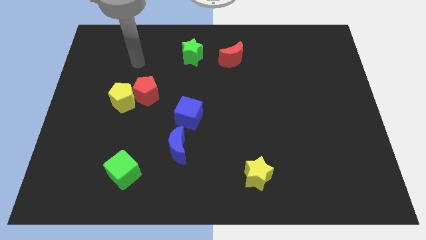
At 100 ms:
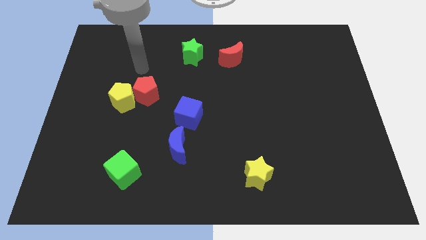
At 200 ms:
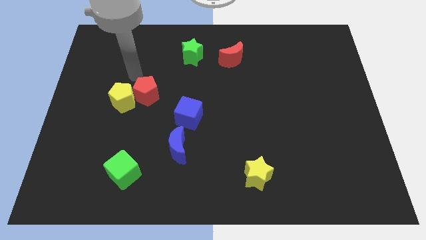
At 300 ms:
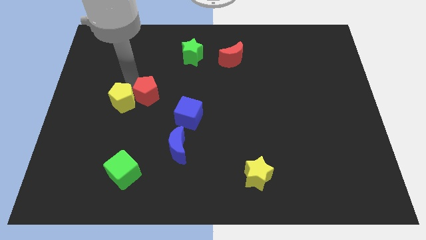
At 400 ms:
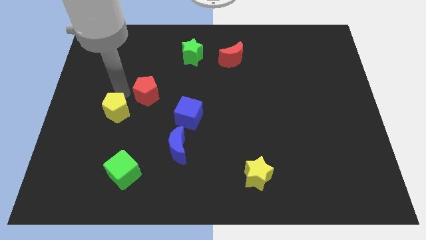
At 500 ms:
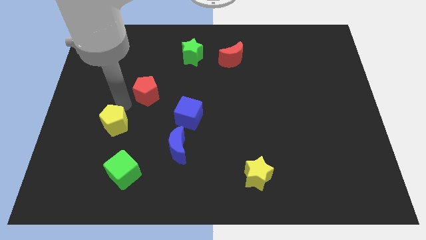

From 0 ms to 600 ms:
move the red pentagon away from the yellow pentagon

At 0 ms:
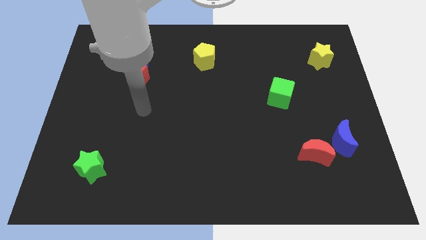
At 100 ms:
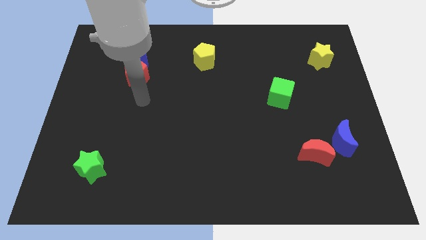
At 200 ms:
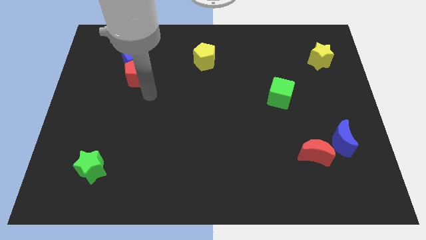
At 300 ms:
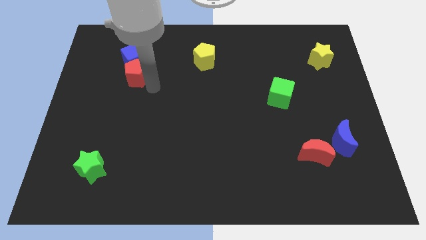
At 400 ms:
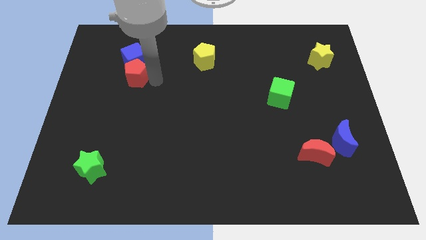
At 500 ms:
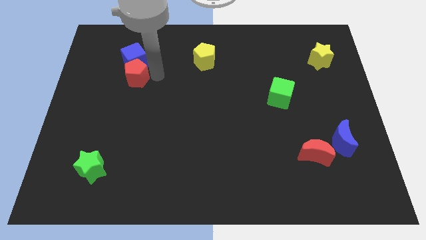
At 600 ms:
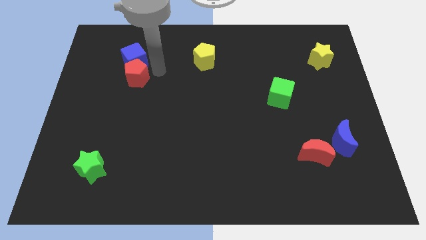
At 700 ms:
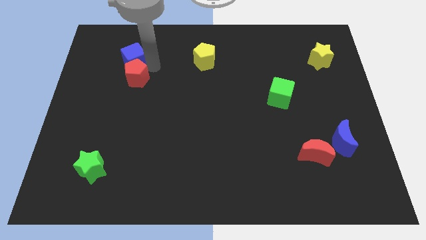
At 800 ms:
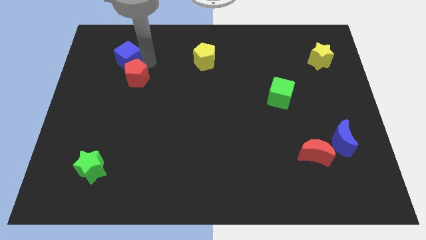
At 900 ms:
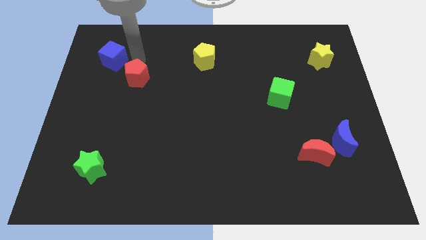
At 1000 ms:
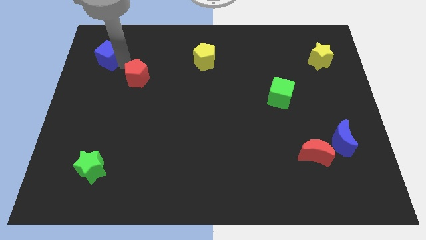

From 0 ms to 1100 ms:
pull the red pentagon apart from the blue cube

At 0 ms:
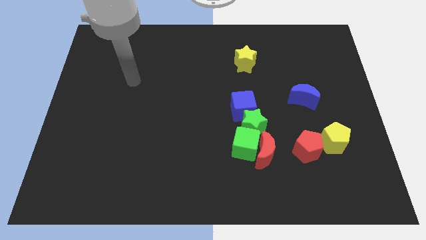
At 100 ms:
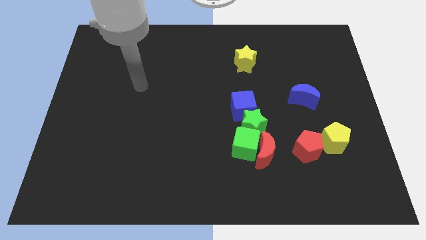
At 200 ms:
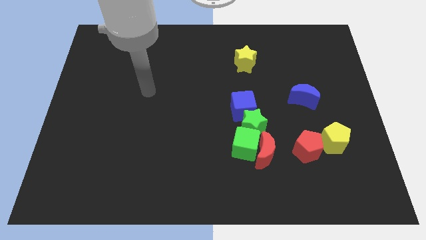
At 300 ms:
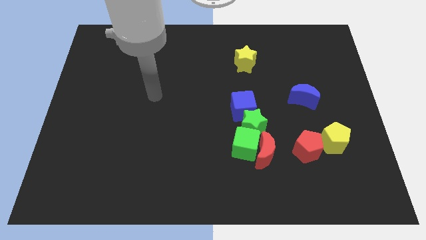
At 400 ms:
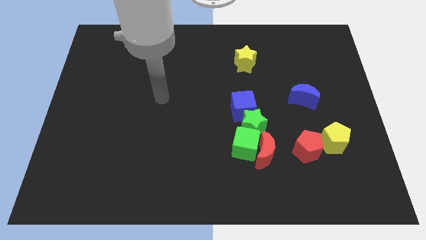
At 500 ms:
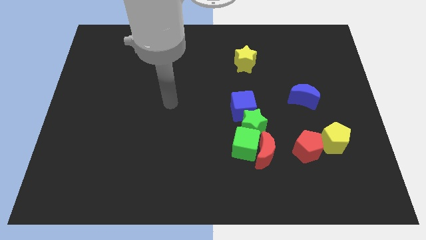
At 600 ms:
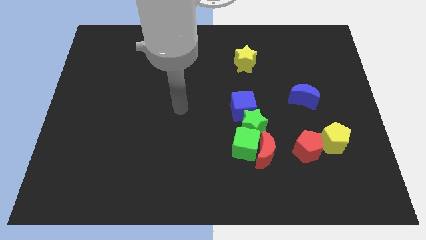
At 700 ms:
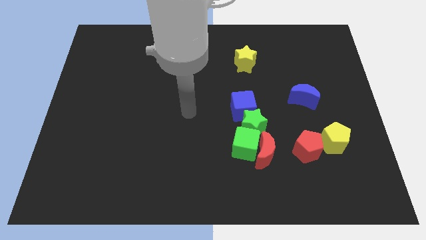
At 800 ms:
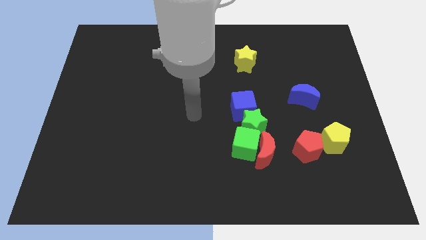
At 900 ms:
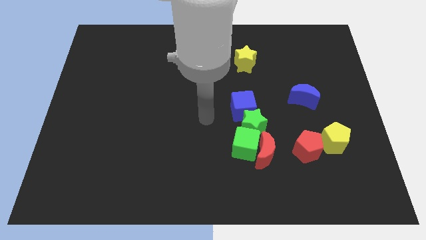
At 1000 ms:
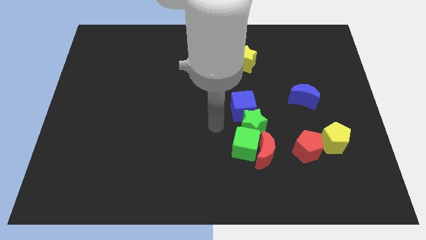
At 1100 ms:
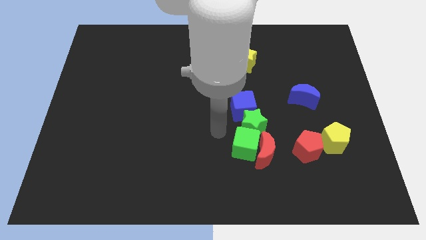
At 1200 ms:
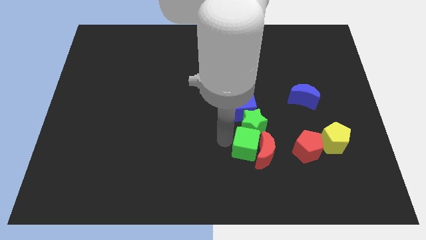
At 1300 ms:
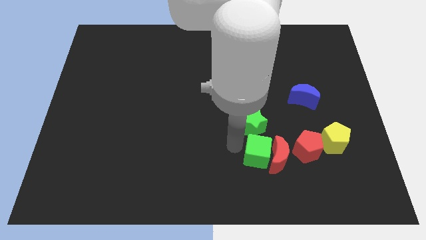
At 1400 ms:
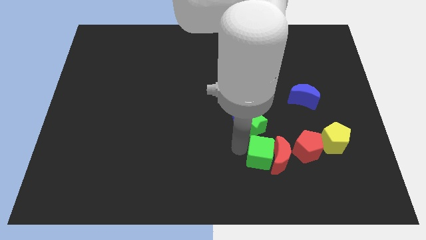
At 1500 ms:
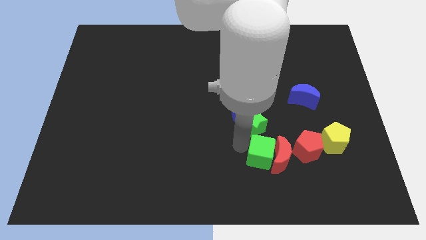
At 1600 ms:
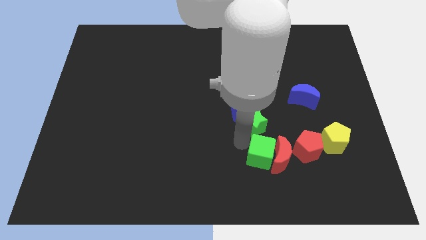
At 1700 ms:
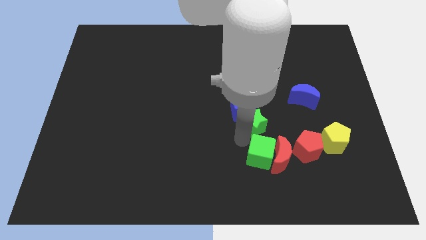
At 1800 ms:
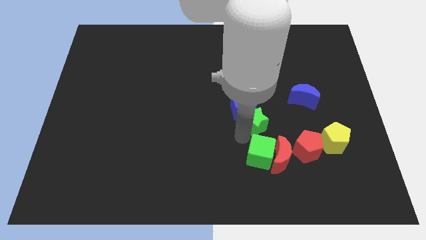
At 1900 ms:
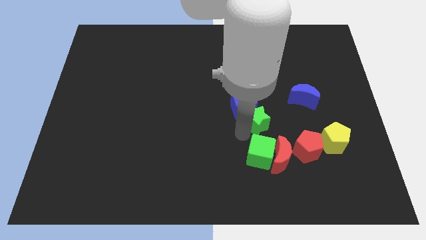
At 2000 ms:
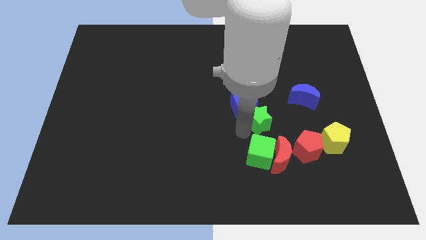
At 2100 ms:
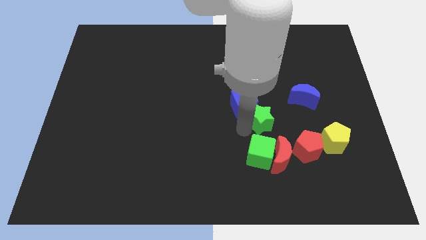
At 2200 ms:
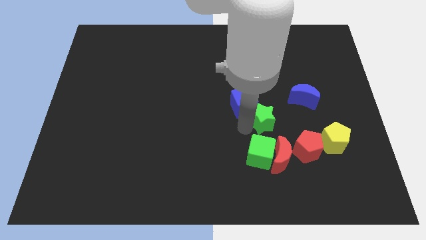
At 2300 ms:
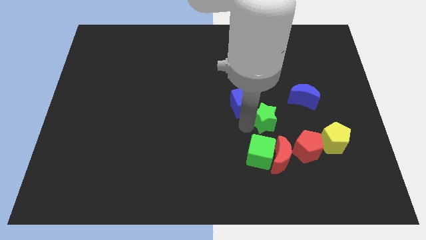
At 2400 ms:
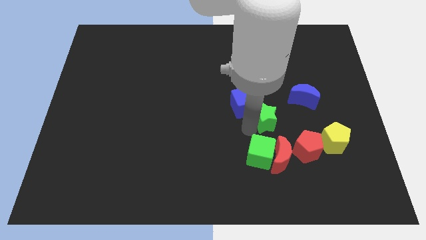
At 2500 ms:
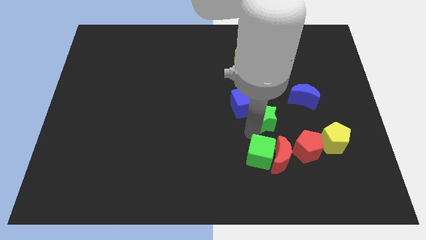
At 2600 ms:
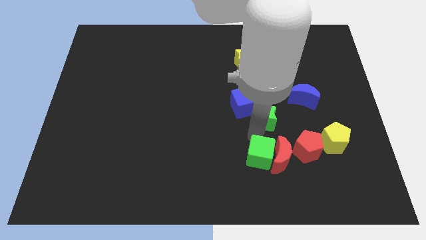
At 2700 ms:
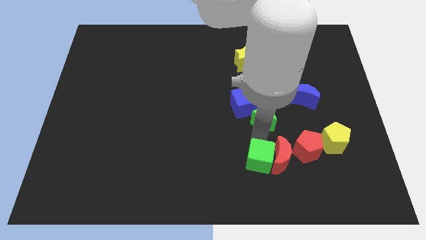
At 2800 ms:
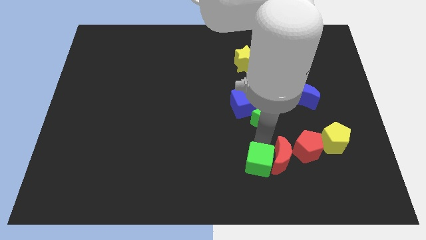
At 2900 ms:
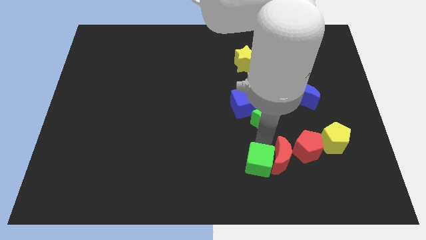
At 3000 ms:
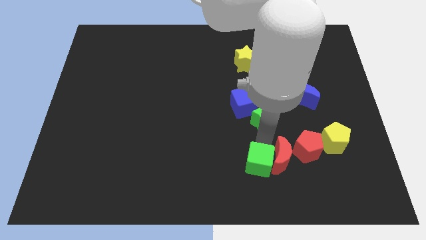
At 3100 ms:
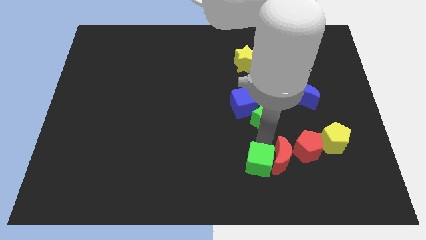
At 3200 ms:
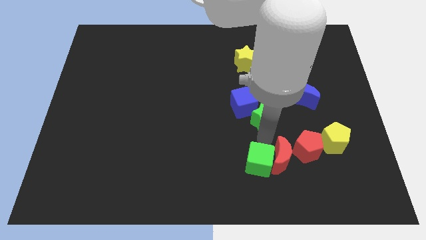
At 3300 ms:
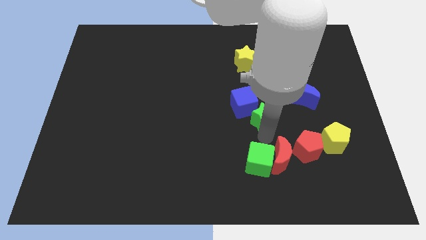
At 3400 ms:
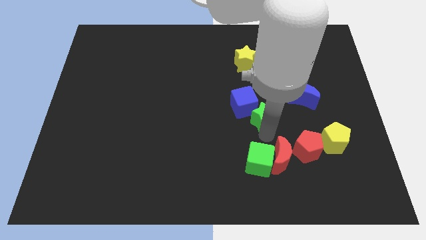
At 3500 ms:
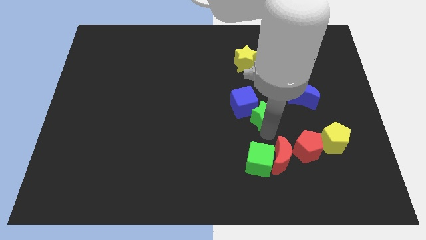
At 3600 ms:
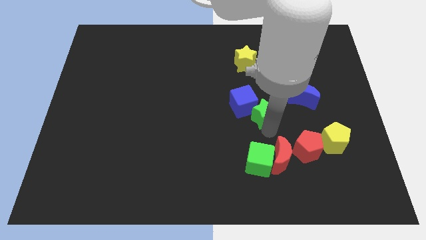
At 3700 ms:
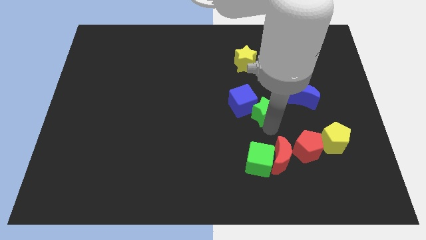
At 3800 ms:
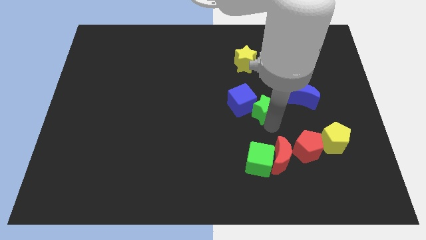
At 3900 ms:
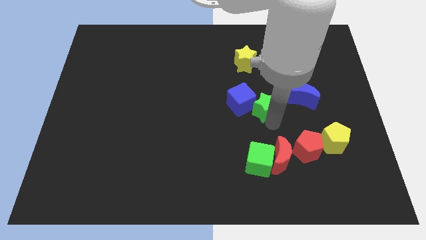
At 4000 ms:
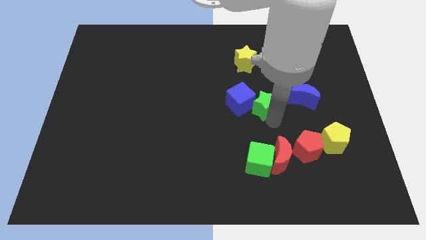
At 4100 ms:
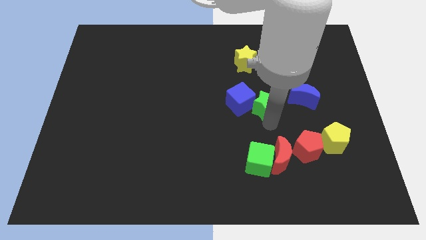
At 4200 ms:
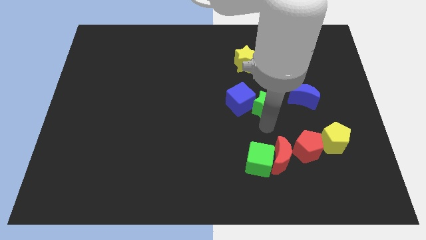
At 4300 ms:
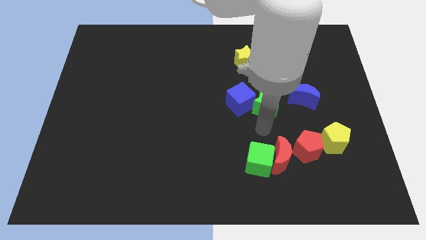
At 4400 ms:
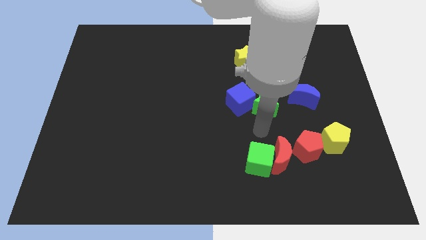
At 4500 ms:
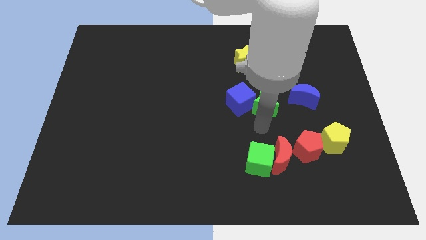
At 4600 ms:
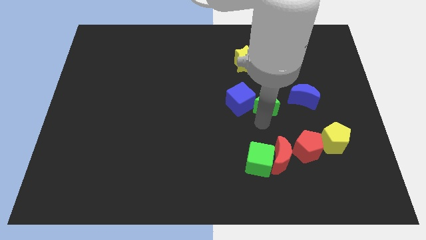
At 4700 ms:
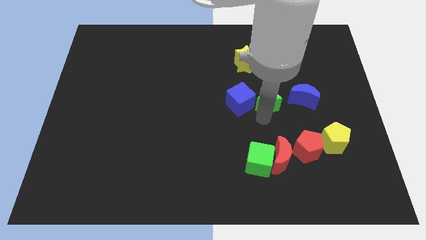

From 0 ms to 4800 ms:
move the green star away from the group of blocks

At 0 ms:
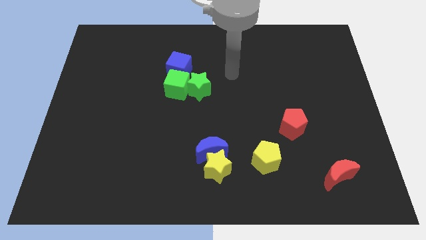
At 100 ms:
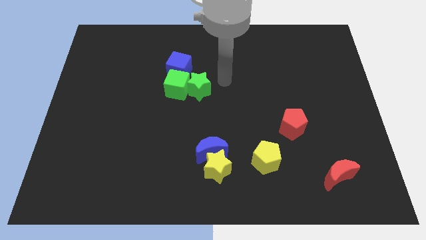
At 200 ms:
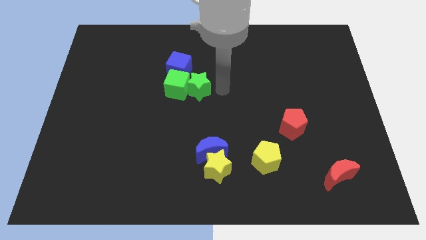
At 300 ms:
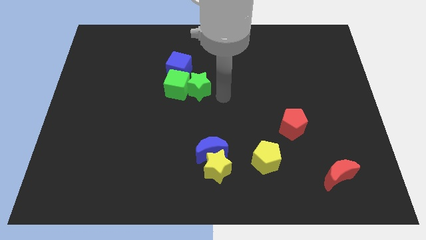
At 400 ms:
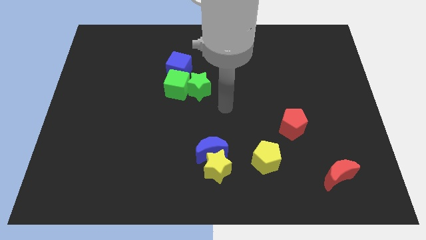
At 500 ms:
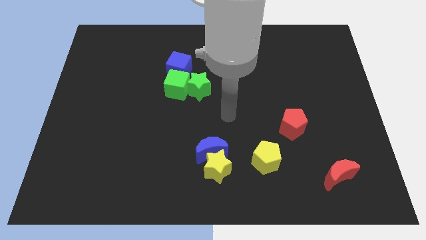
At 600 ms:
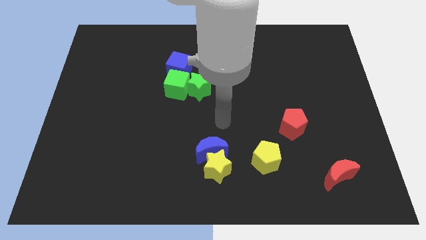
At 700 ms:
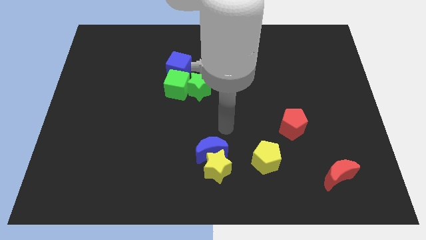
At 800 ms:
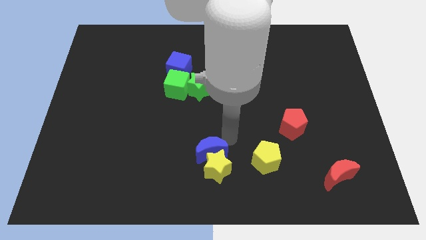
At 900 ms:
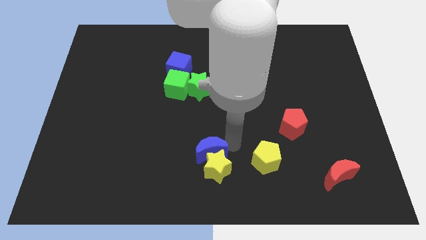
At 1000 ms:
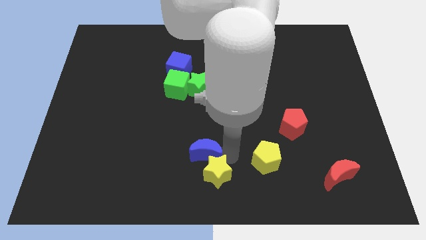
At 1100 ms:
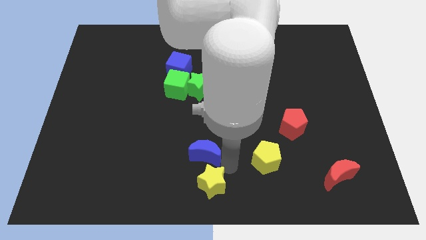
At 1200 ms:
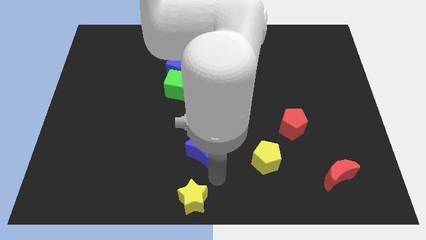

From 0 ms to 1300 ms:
pull the blue moon apart from the yellow star

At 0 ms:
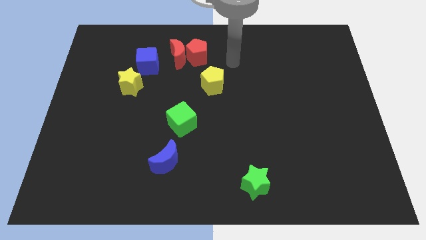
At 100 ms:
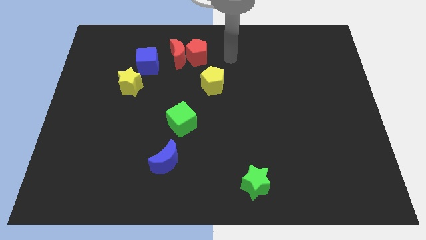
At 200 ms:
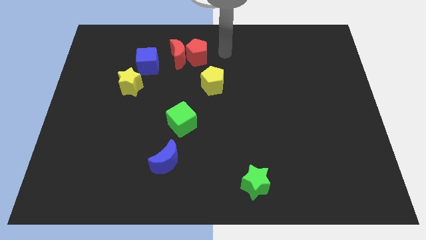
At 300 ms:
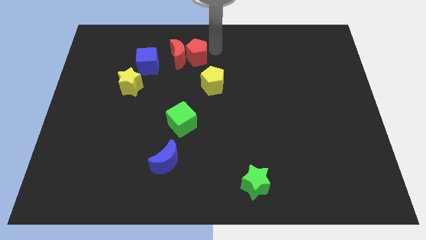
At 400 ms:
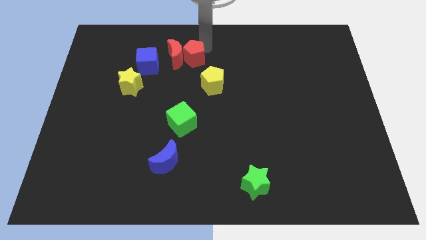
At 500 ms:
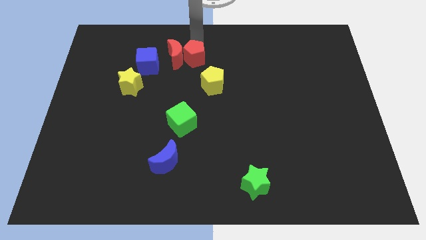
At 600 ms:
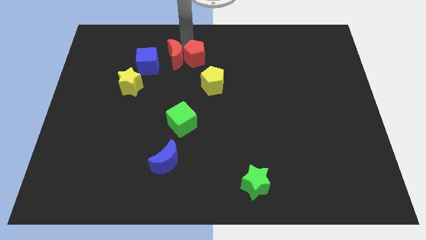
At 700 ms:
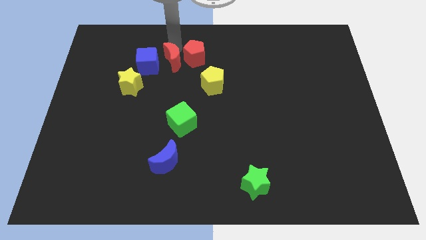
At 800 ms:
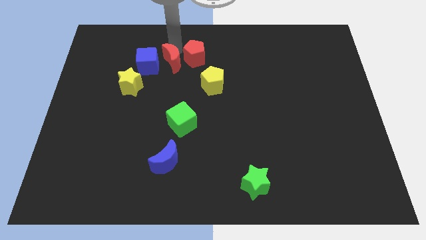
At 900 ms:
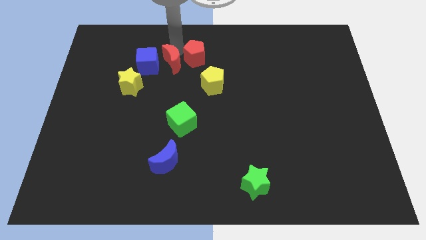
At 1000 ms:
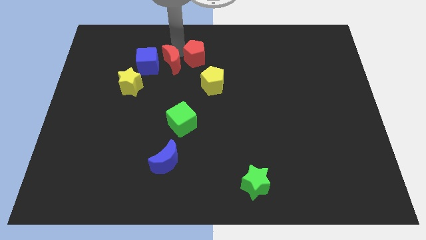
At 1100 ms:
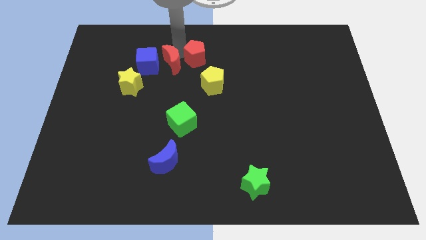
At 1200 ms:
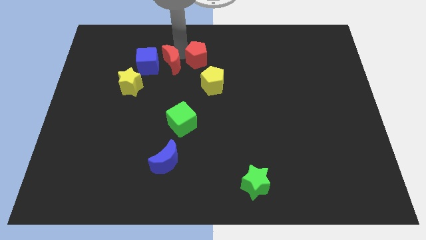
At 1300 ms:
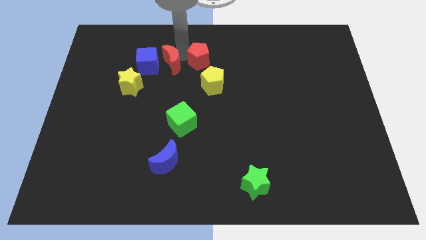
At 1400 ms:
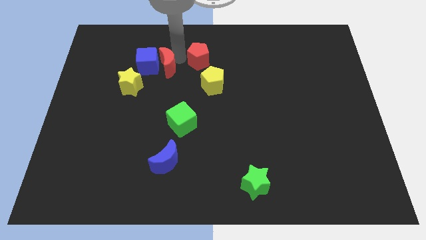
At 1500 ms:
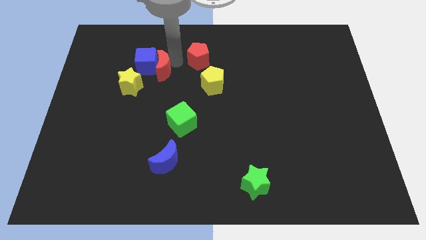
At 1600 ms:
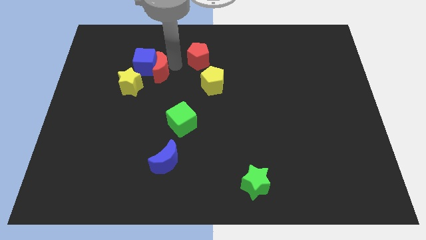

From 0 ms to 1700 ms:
pull the red pentagon apart from the red moon
